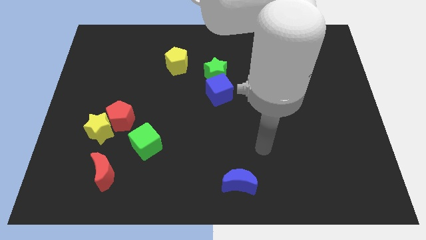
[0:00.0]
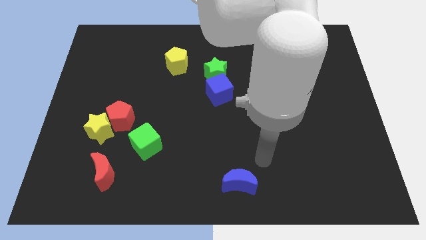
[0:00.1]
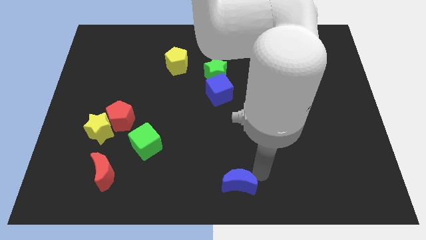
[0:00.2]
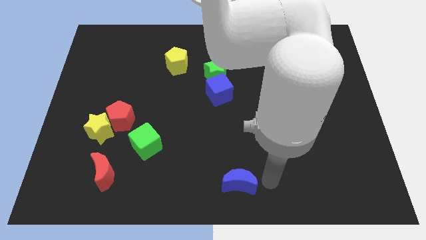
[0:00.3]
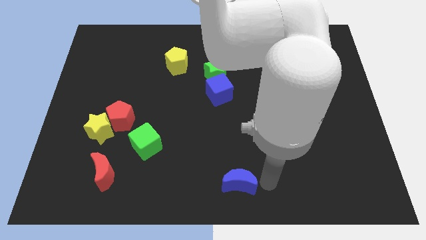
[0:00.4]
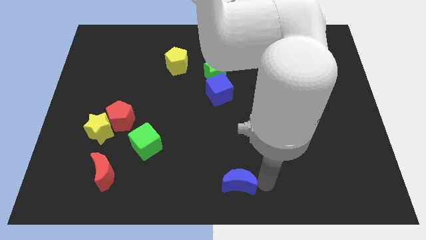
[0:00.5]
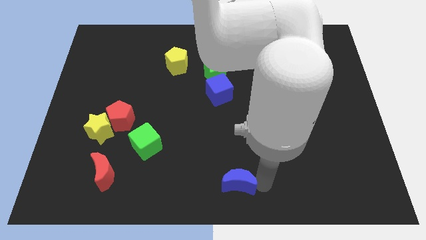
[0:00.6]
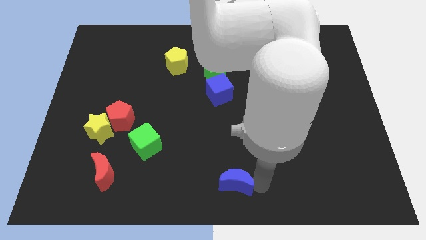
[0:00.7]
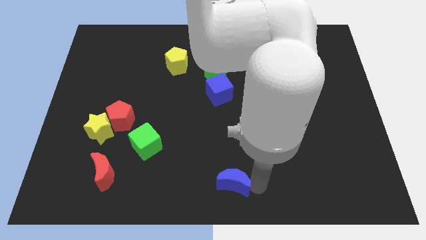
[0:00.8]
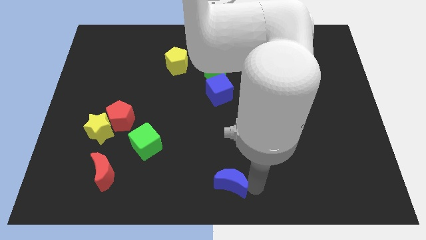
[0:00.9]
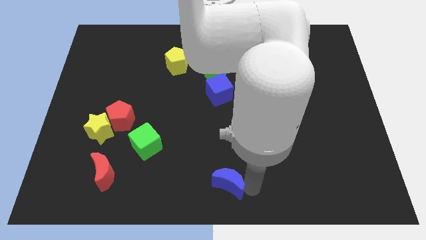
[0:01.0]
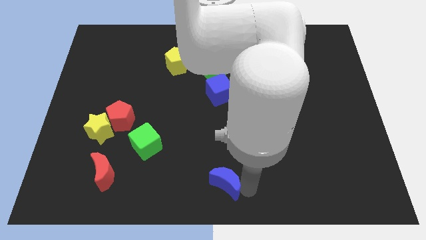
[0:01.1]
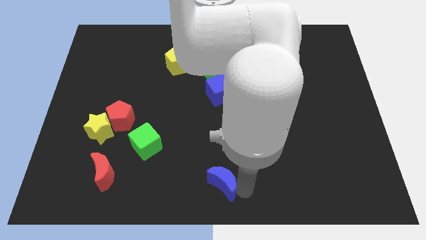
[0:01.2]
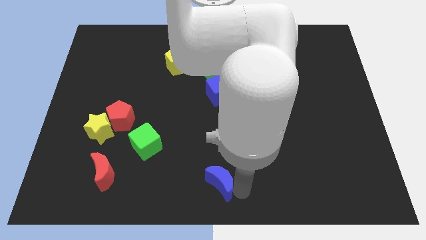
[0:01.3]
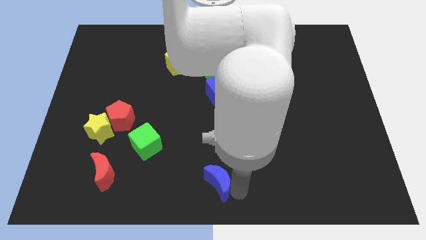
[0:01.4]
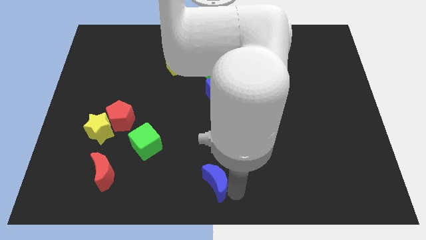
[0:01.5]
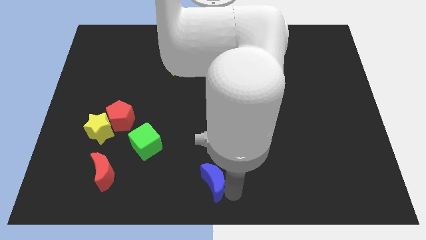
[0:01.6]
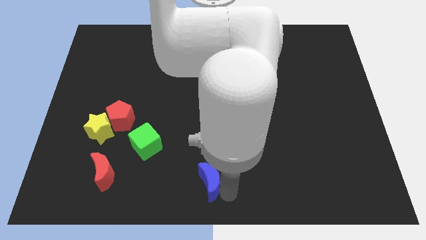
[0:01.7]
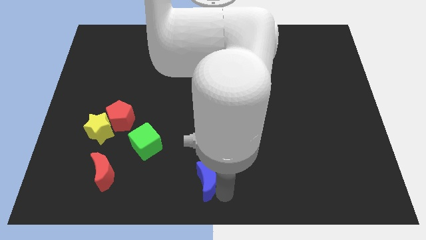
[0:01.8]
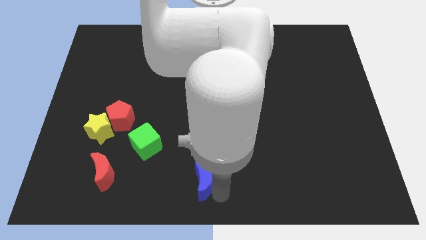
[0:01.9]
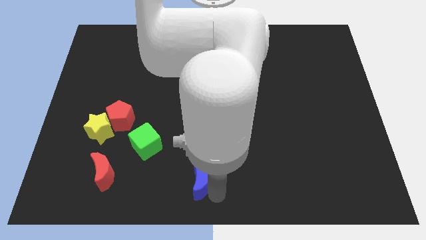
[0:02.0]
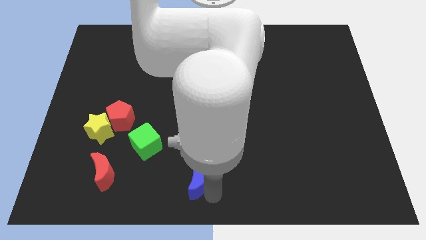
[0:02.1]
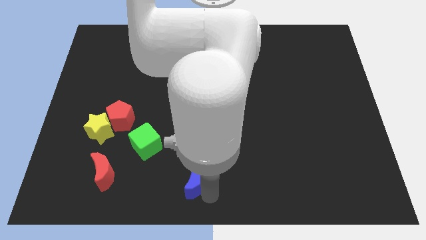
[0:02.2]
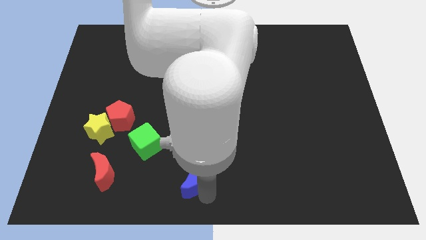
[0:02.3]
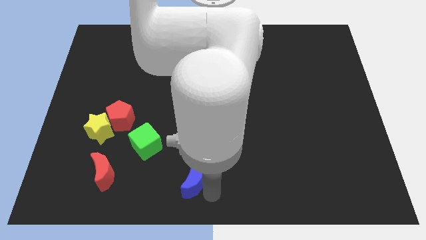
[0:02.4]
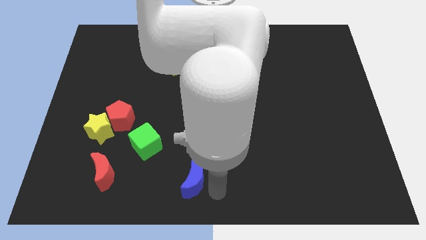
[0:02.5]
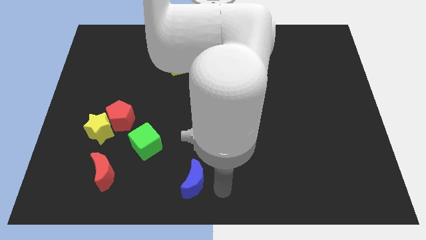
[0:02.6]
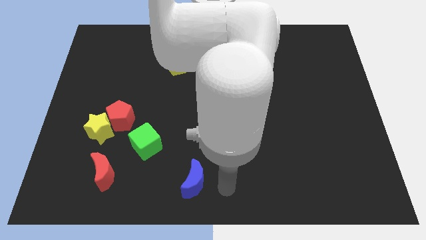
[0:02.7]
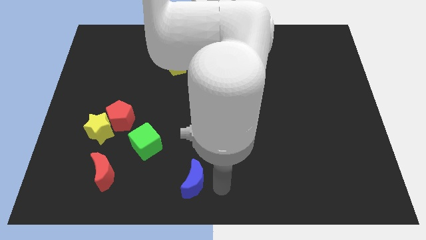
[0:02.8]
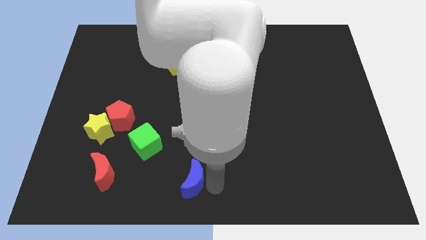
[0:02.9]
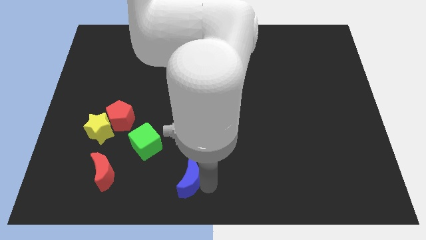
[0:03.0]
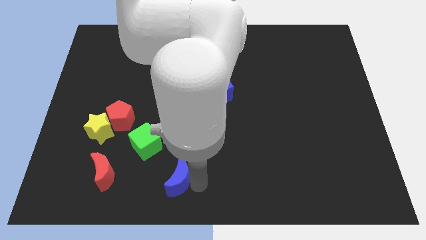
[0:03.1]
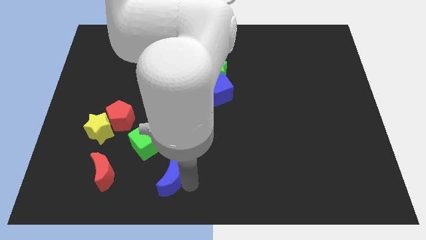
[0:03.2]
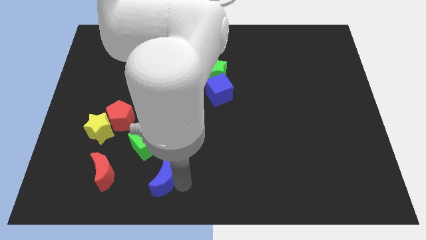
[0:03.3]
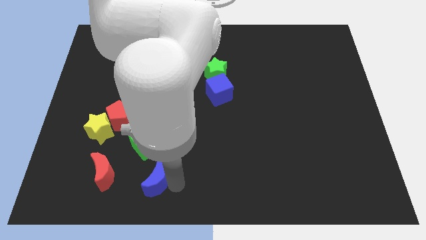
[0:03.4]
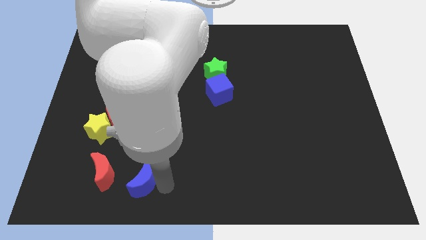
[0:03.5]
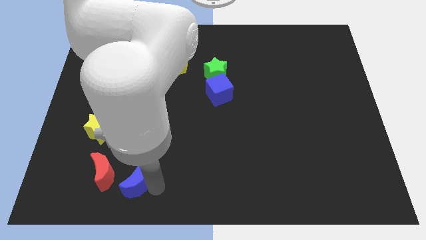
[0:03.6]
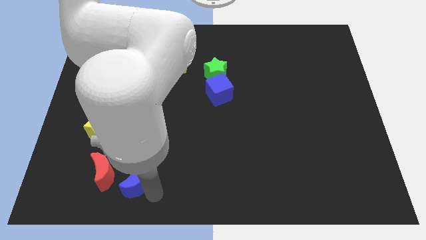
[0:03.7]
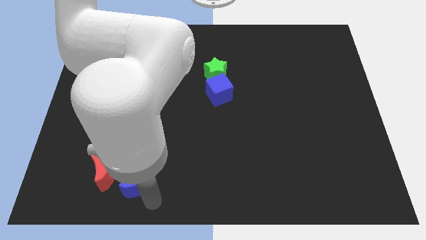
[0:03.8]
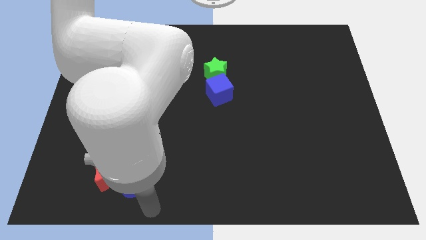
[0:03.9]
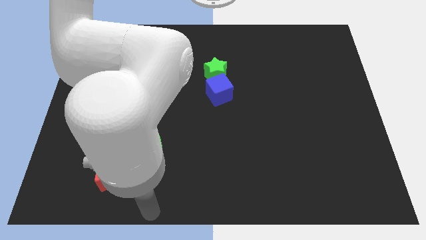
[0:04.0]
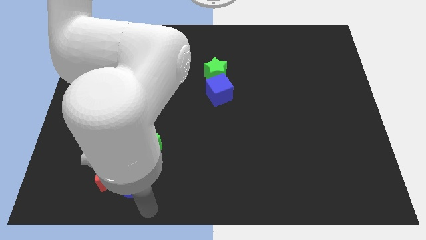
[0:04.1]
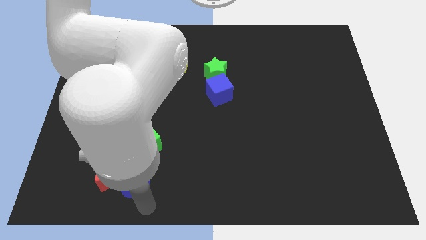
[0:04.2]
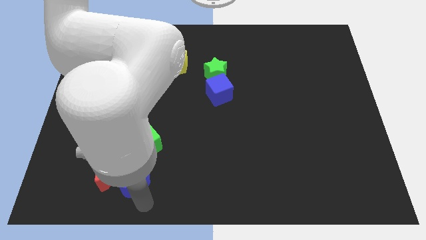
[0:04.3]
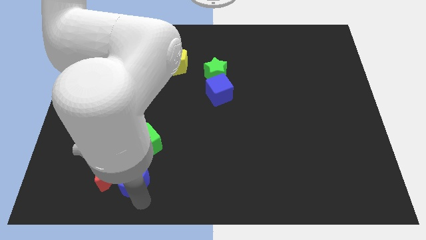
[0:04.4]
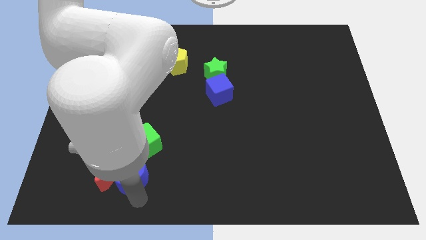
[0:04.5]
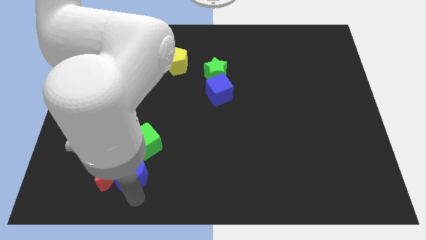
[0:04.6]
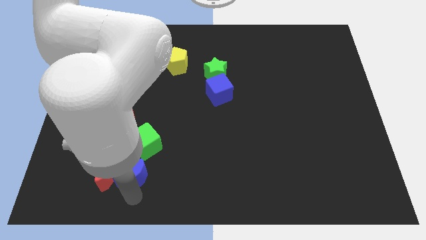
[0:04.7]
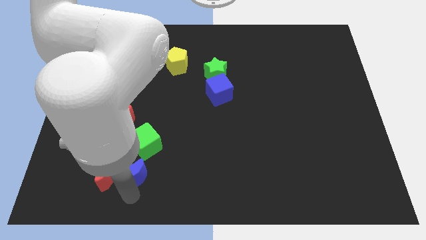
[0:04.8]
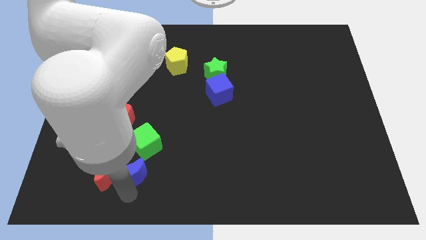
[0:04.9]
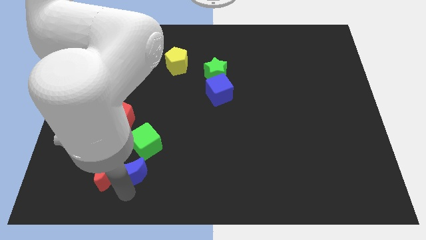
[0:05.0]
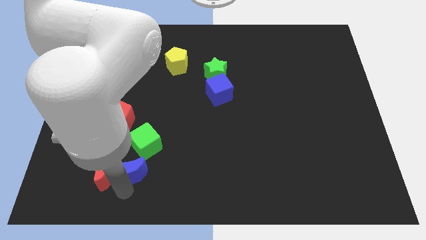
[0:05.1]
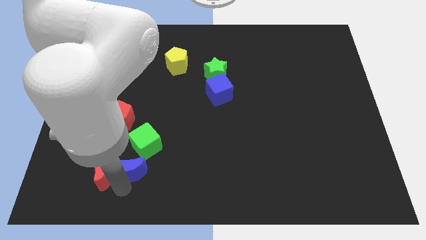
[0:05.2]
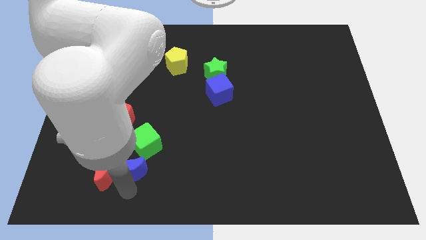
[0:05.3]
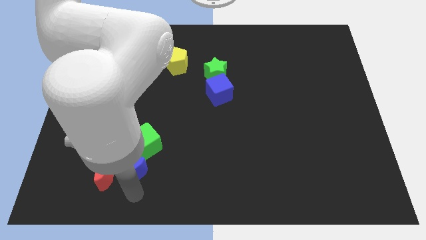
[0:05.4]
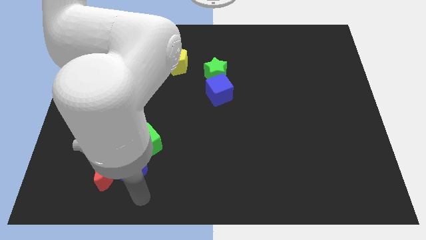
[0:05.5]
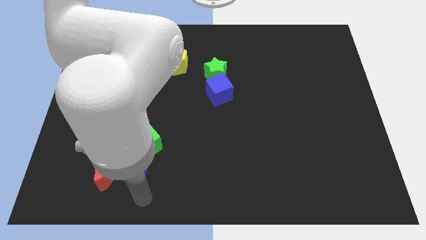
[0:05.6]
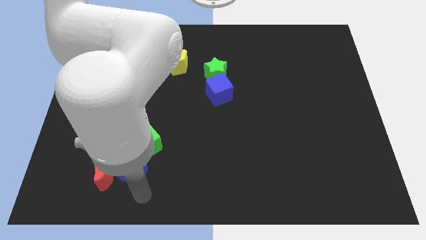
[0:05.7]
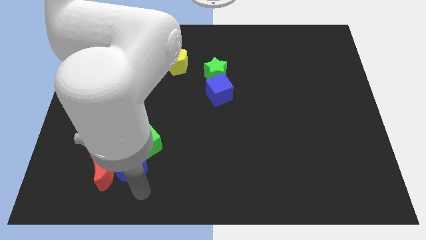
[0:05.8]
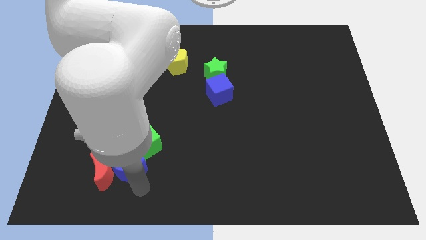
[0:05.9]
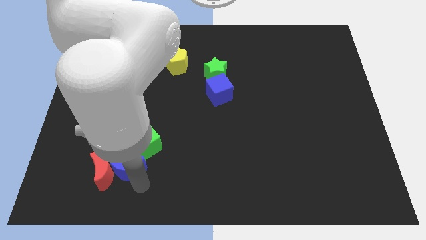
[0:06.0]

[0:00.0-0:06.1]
slide the blue moon to the bottom right side of the yellow star

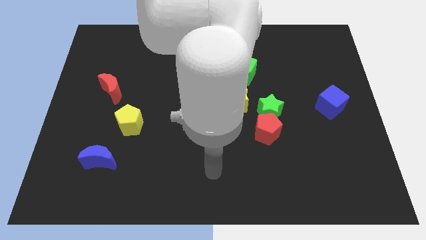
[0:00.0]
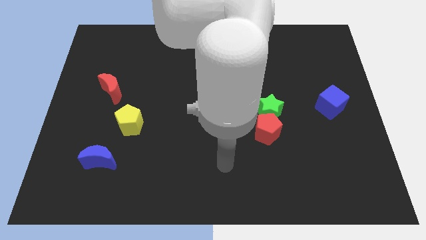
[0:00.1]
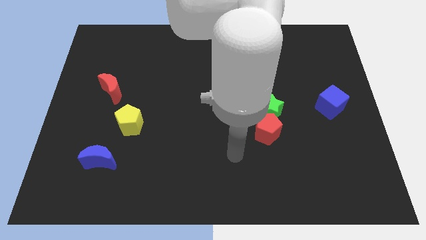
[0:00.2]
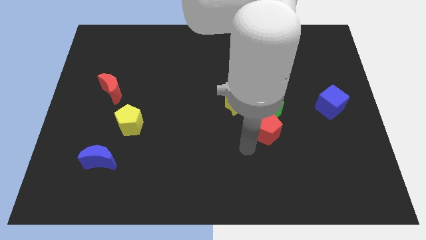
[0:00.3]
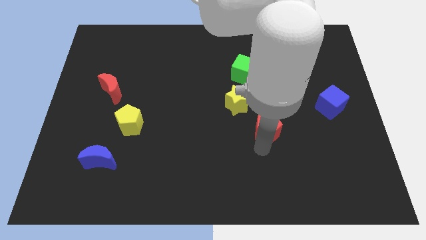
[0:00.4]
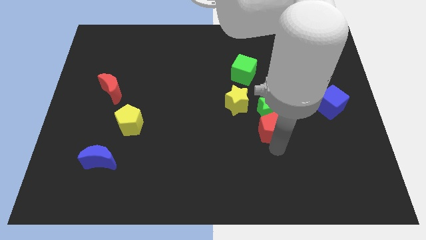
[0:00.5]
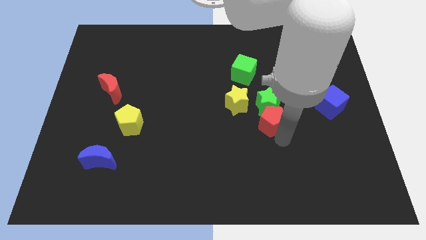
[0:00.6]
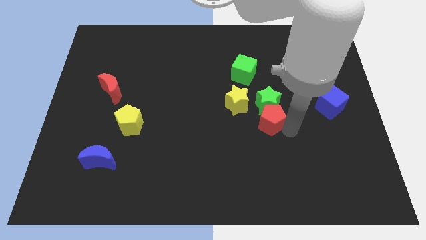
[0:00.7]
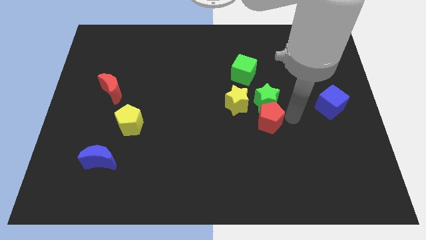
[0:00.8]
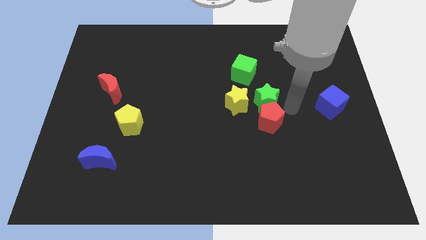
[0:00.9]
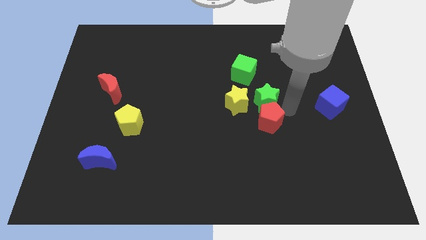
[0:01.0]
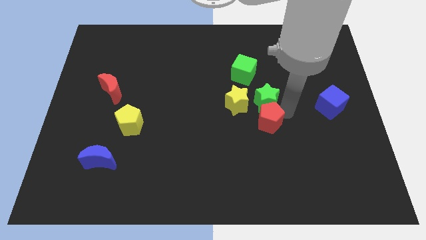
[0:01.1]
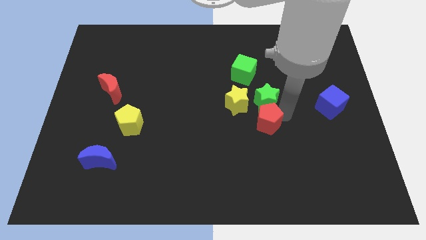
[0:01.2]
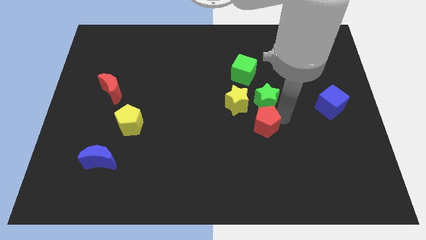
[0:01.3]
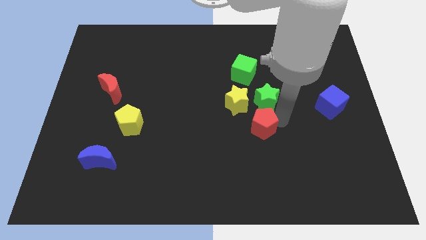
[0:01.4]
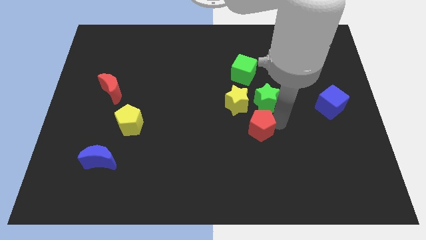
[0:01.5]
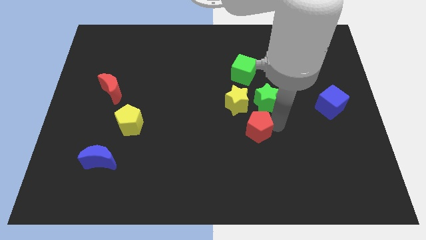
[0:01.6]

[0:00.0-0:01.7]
move the red pentagon to the bottom of the yellow star

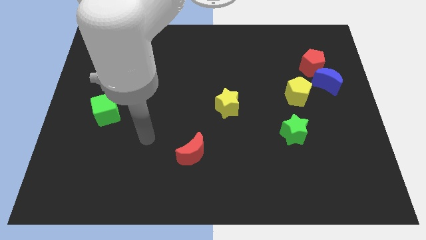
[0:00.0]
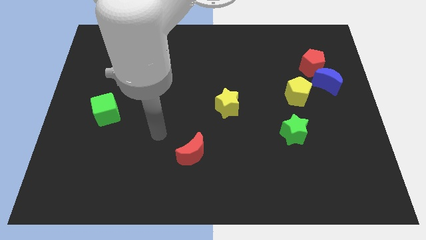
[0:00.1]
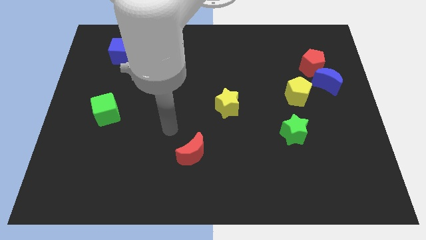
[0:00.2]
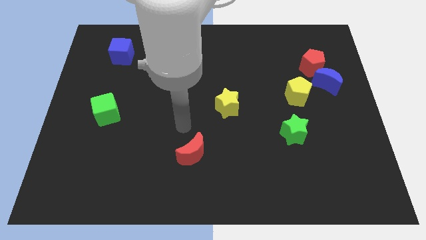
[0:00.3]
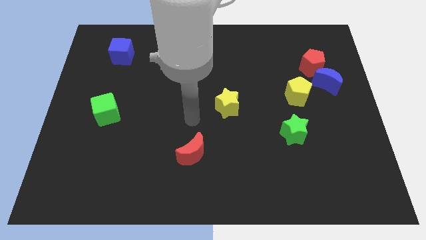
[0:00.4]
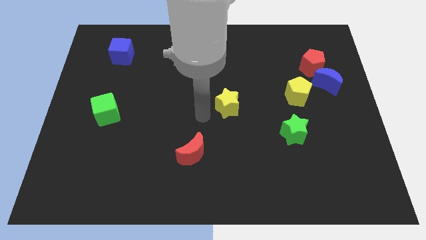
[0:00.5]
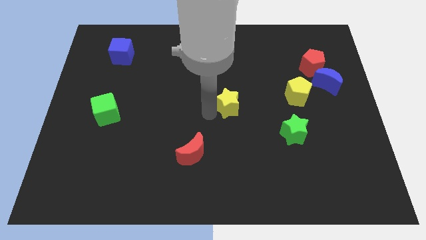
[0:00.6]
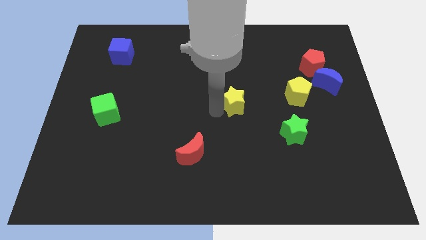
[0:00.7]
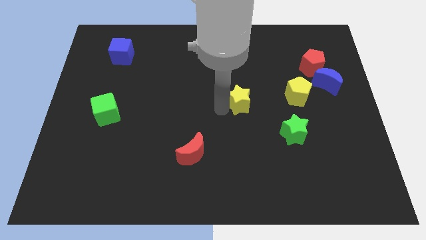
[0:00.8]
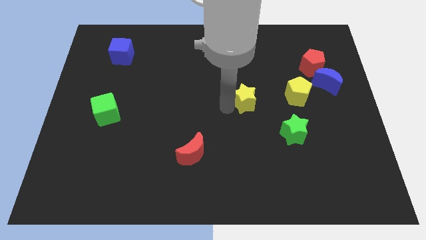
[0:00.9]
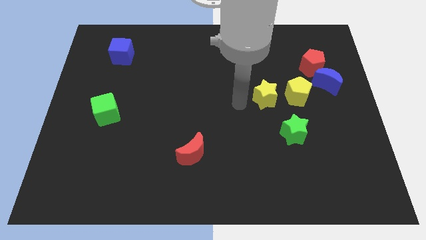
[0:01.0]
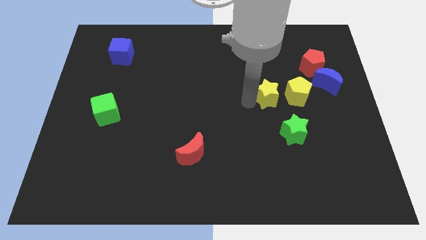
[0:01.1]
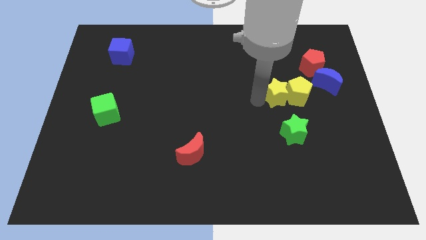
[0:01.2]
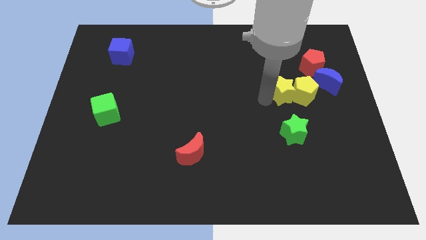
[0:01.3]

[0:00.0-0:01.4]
slide the yellow star to the bottom left side of the red pentagon
